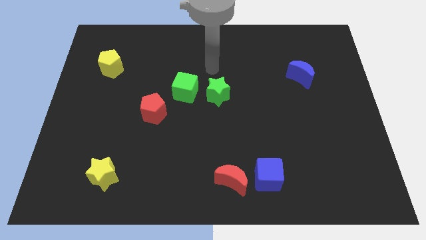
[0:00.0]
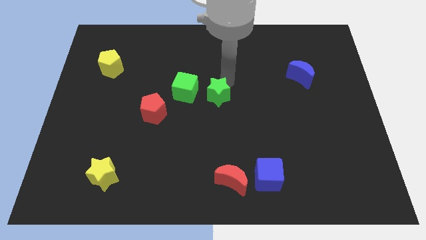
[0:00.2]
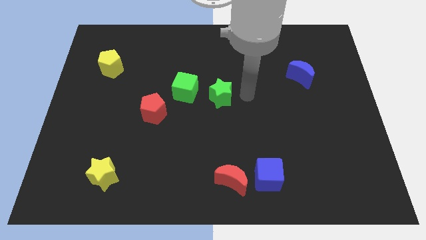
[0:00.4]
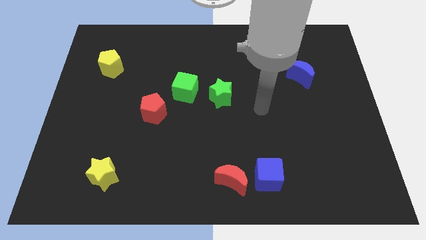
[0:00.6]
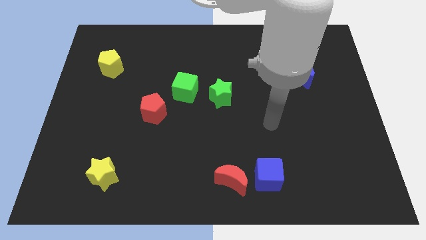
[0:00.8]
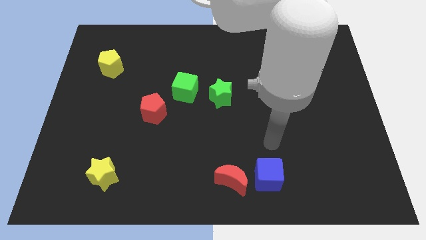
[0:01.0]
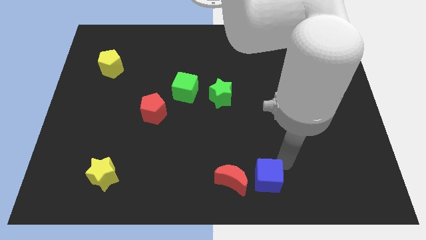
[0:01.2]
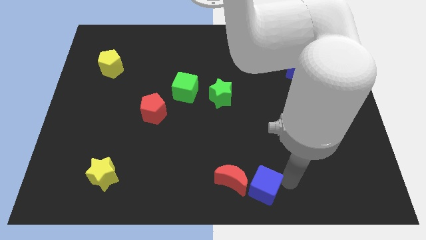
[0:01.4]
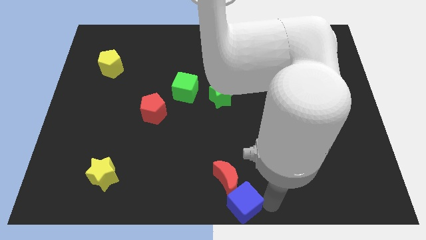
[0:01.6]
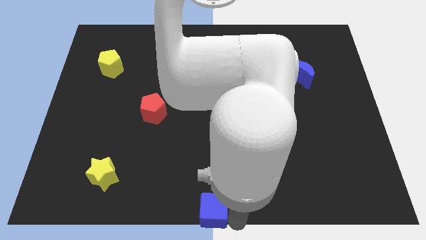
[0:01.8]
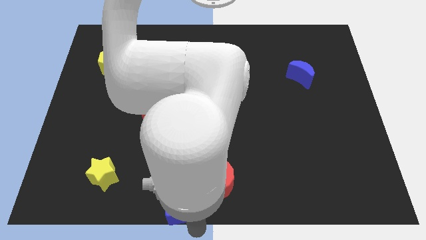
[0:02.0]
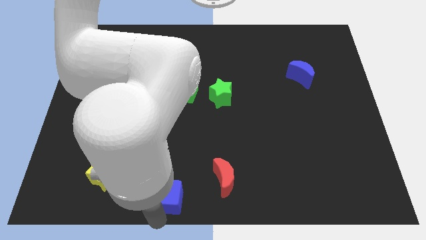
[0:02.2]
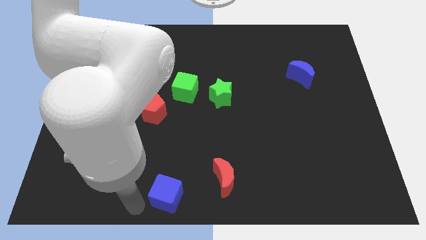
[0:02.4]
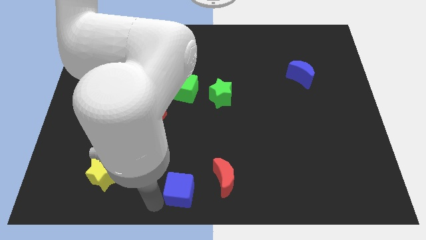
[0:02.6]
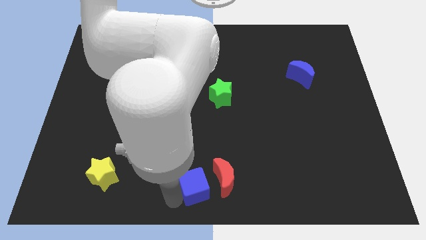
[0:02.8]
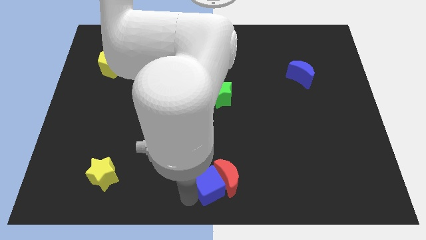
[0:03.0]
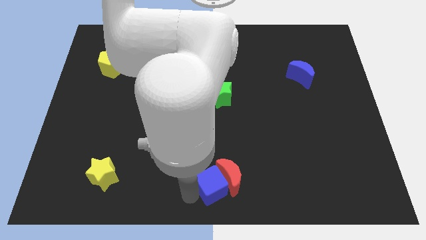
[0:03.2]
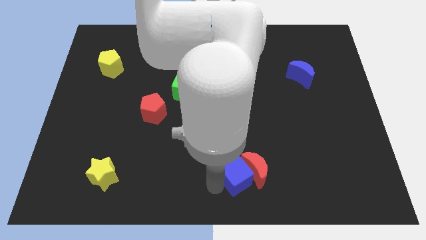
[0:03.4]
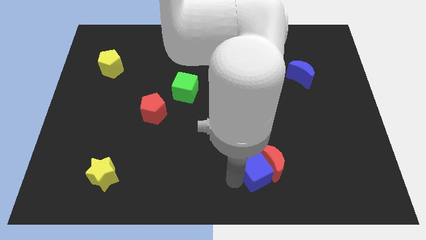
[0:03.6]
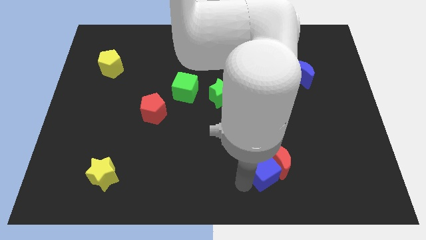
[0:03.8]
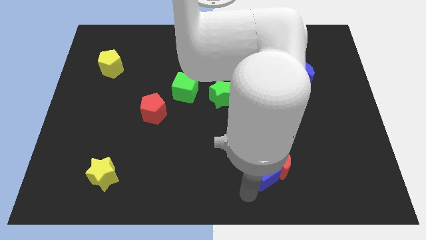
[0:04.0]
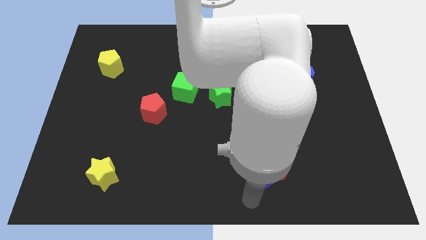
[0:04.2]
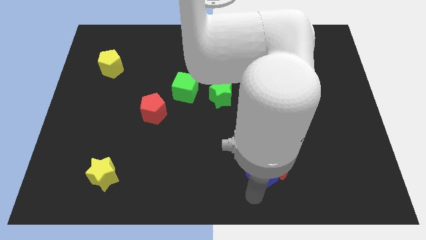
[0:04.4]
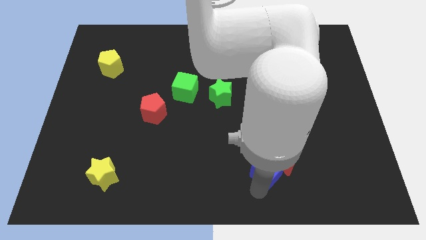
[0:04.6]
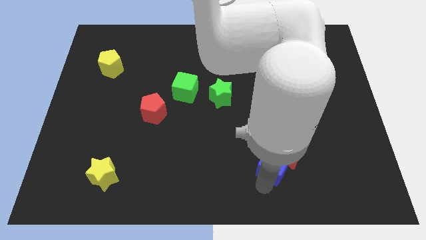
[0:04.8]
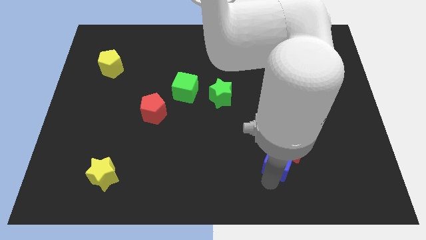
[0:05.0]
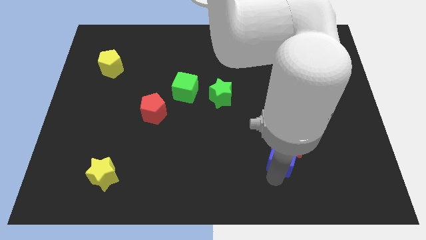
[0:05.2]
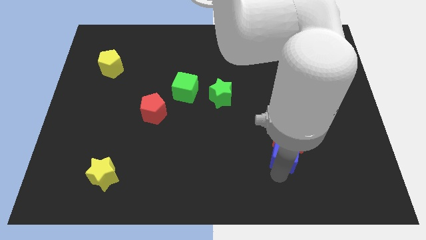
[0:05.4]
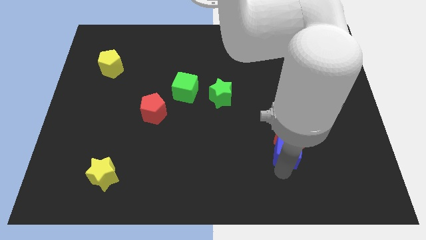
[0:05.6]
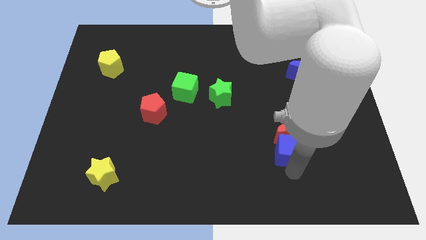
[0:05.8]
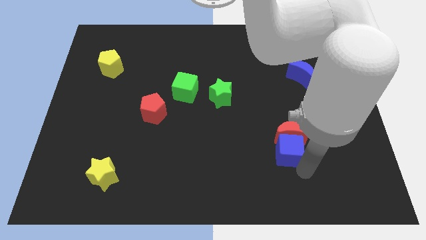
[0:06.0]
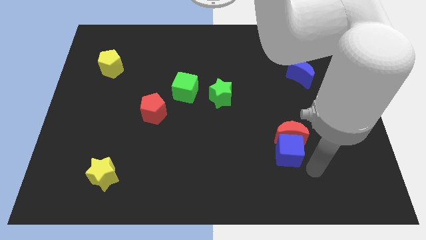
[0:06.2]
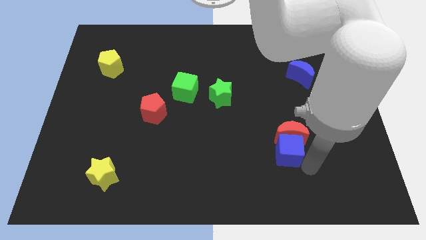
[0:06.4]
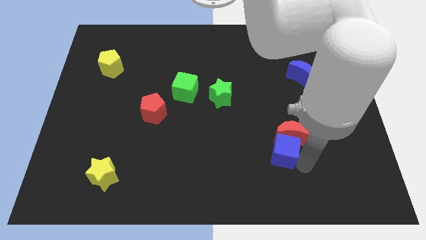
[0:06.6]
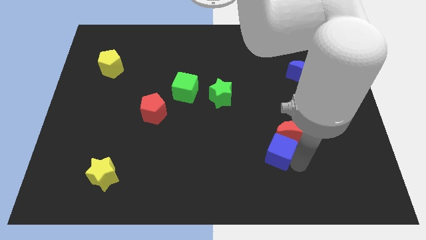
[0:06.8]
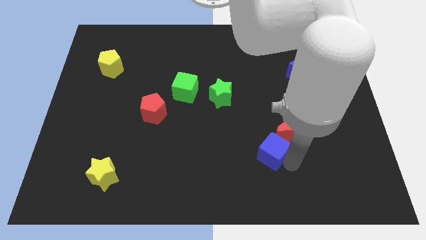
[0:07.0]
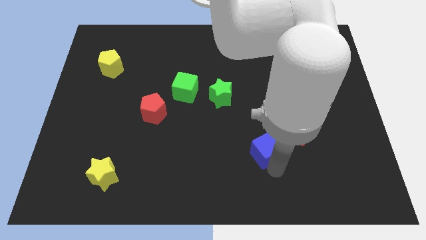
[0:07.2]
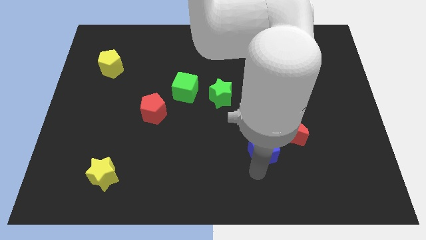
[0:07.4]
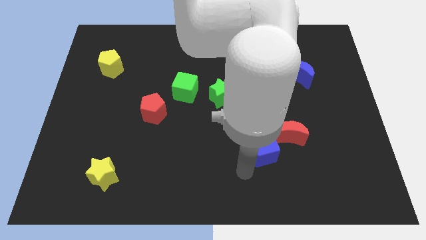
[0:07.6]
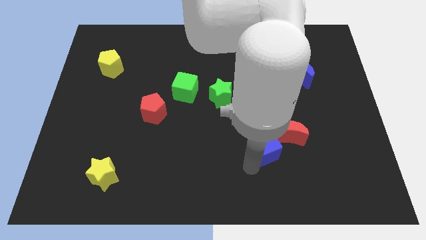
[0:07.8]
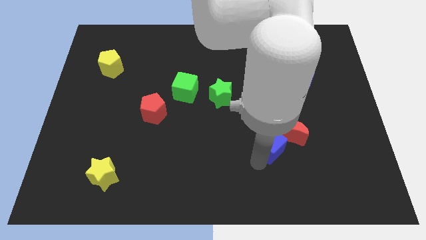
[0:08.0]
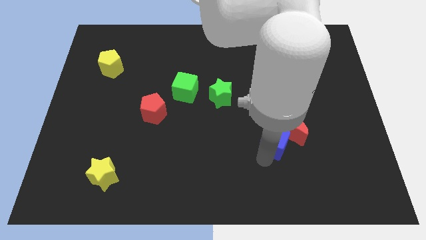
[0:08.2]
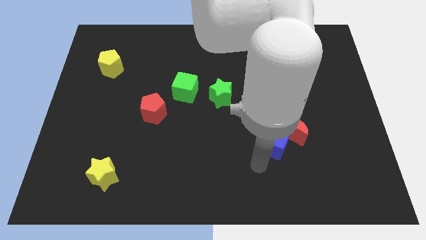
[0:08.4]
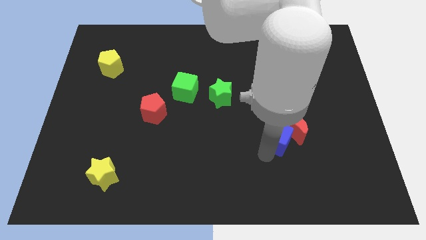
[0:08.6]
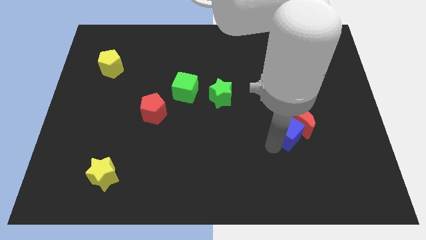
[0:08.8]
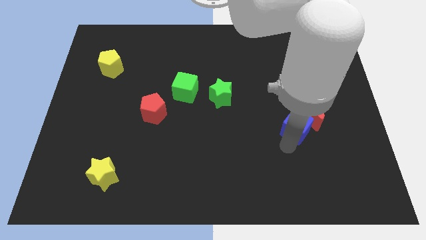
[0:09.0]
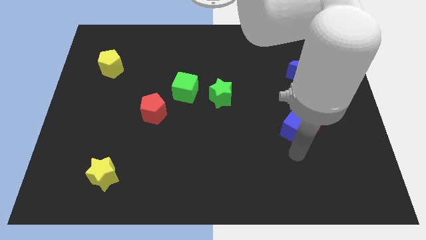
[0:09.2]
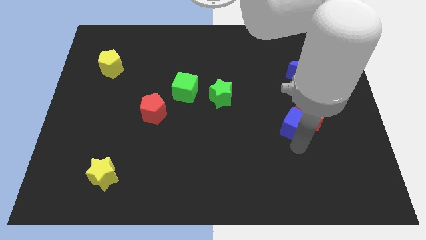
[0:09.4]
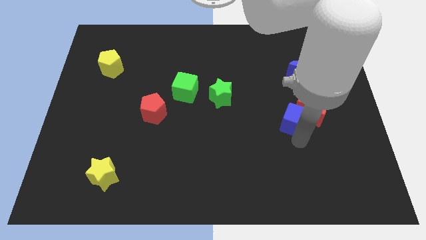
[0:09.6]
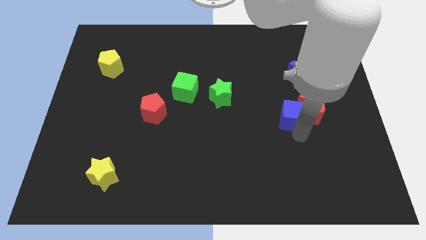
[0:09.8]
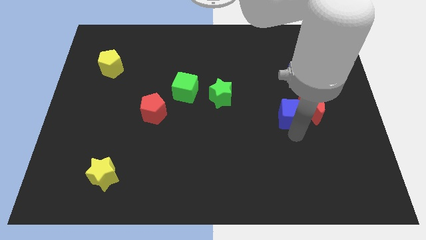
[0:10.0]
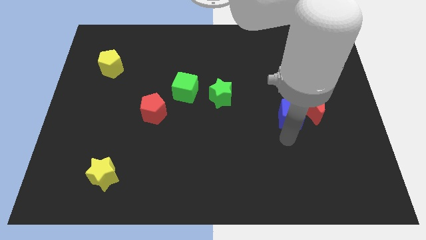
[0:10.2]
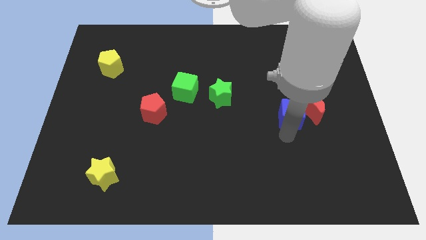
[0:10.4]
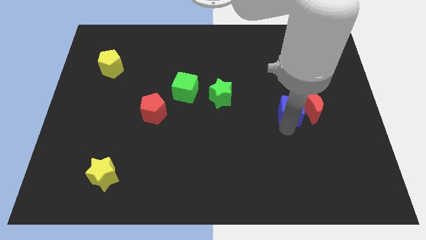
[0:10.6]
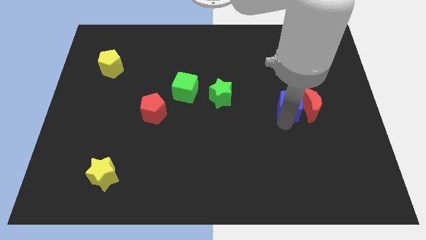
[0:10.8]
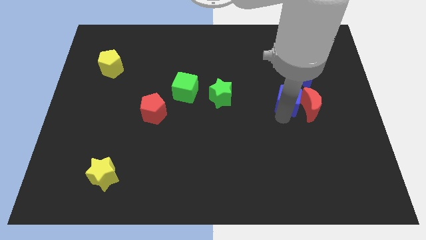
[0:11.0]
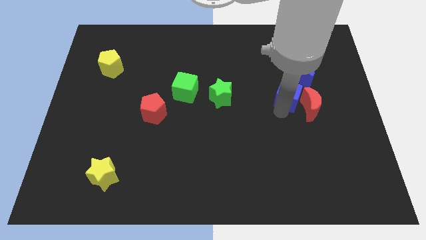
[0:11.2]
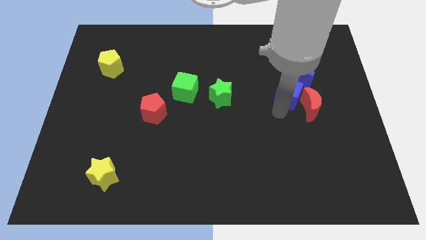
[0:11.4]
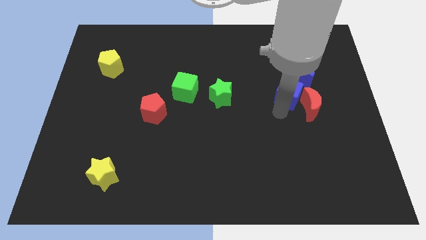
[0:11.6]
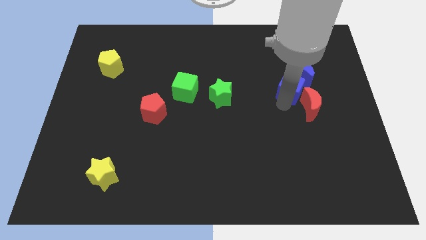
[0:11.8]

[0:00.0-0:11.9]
put the blue cube to the blue moon

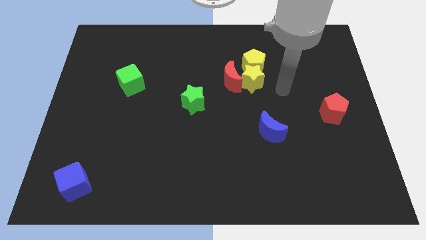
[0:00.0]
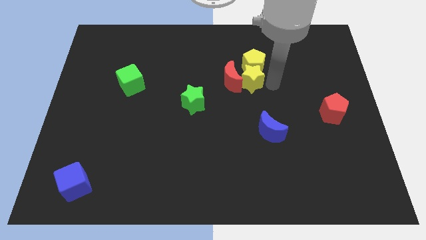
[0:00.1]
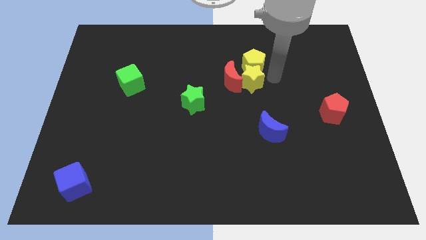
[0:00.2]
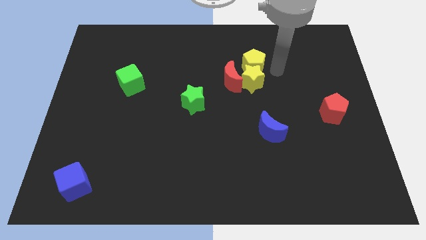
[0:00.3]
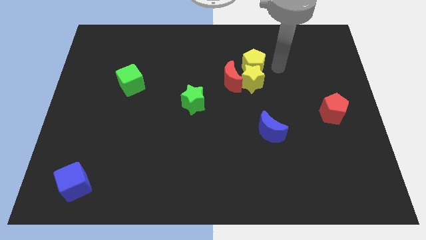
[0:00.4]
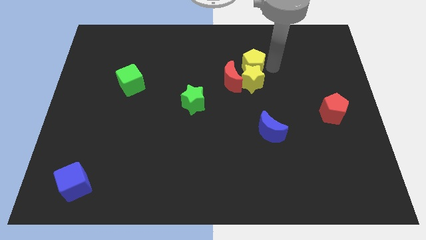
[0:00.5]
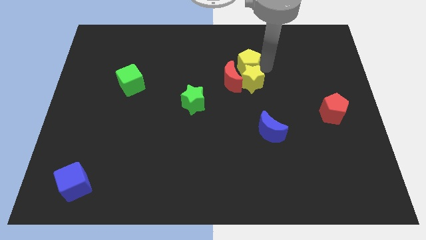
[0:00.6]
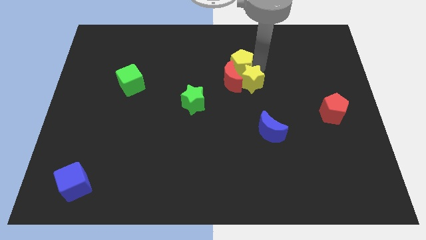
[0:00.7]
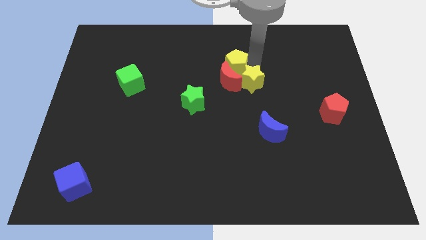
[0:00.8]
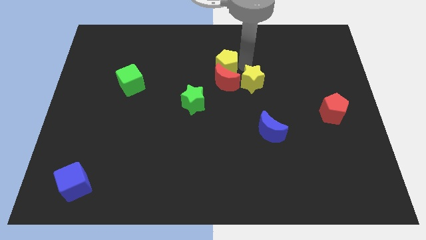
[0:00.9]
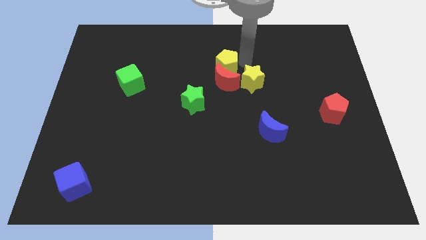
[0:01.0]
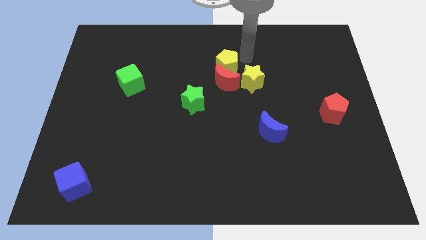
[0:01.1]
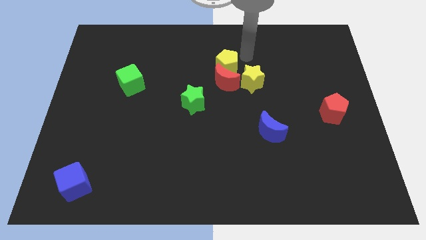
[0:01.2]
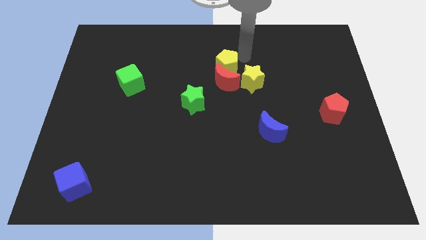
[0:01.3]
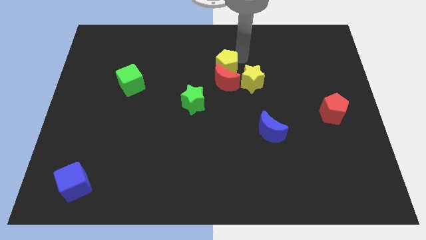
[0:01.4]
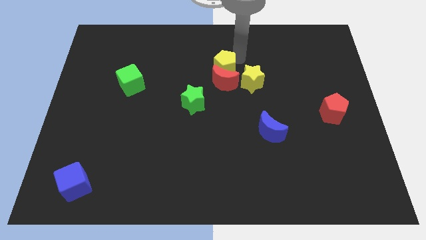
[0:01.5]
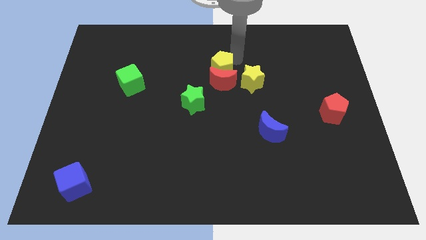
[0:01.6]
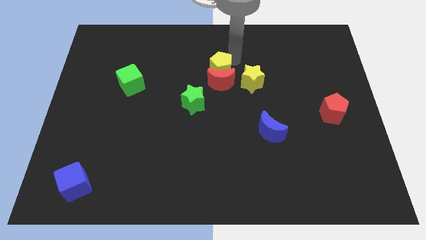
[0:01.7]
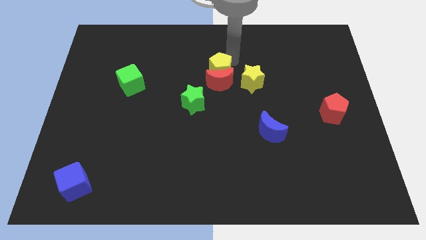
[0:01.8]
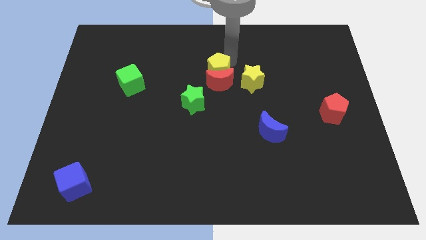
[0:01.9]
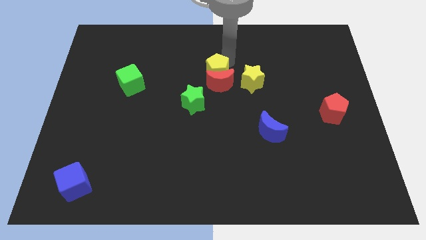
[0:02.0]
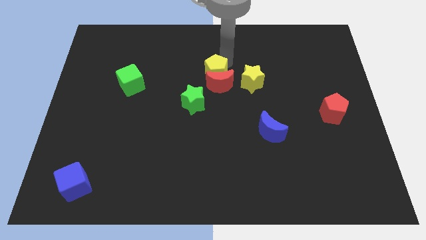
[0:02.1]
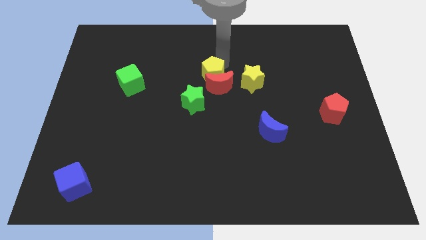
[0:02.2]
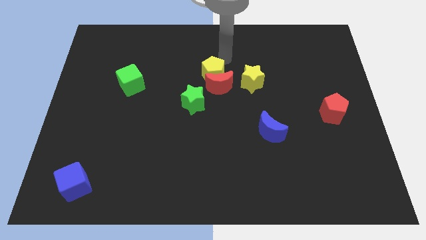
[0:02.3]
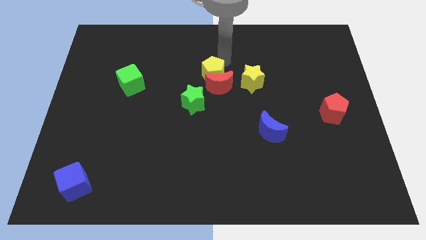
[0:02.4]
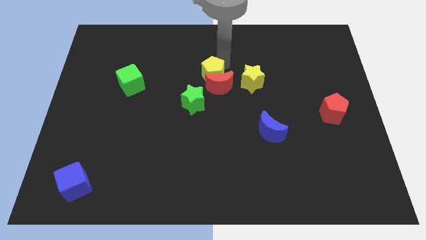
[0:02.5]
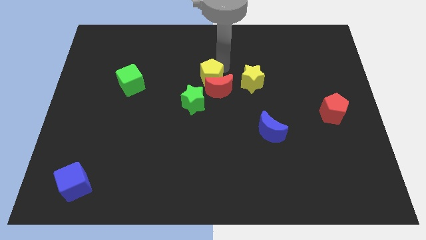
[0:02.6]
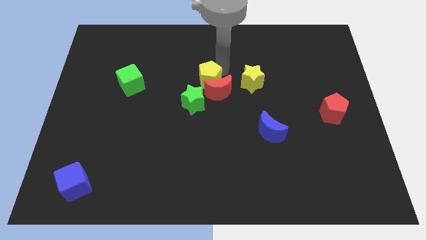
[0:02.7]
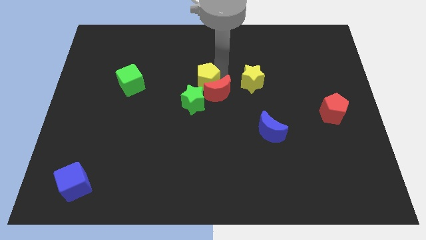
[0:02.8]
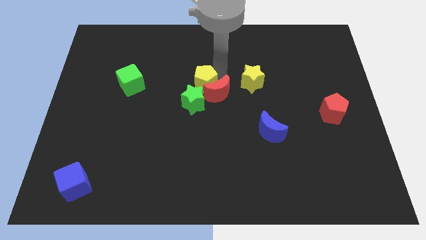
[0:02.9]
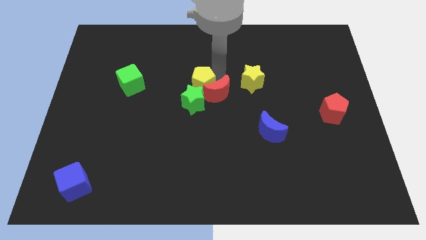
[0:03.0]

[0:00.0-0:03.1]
push the yellow pentagon towards the green star
